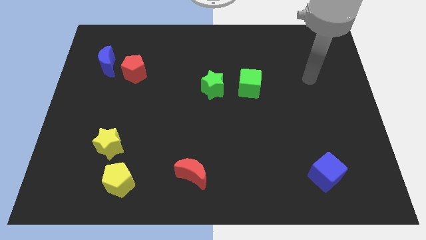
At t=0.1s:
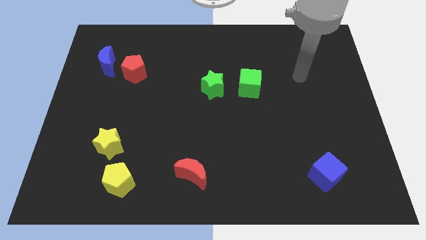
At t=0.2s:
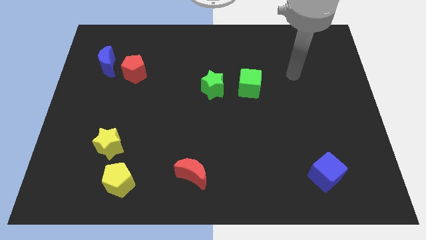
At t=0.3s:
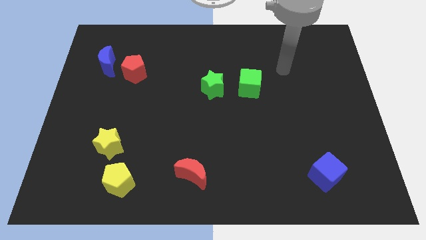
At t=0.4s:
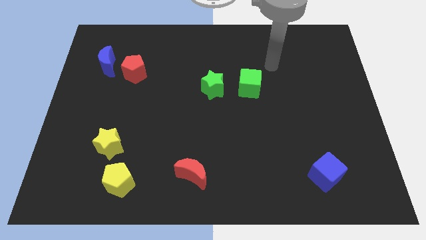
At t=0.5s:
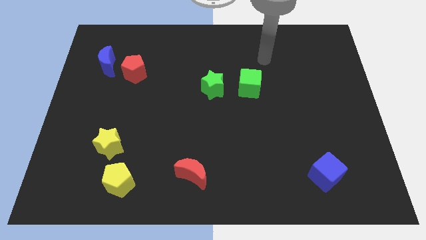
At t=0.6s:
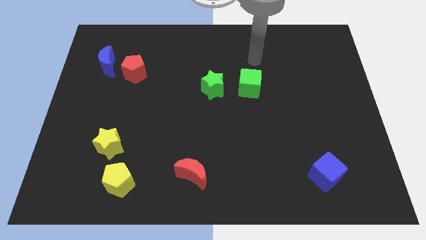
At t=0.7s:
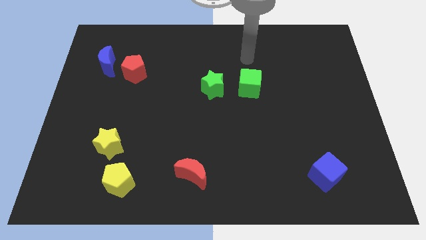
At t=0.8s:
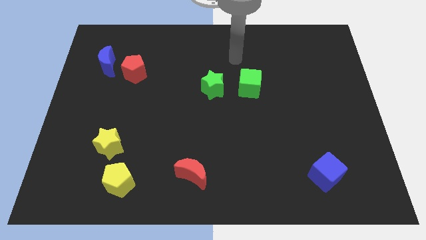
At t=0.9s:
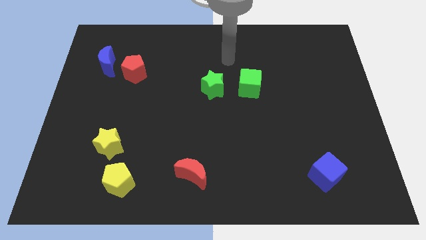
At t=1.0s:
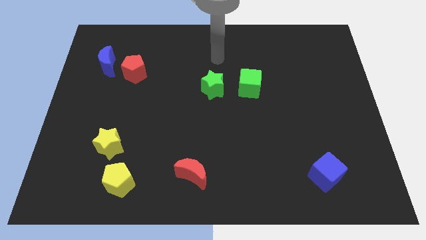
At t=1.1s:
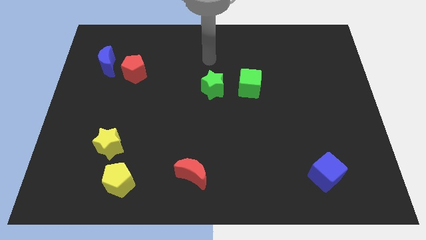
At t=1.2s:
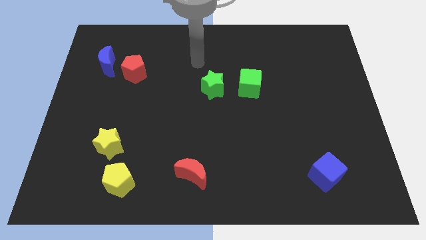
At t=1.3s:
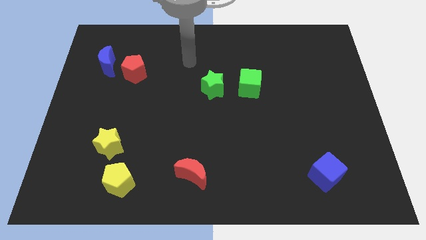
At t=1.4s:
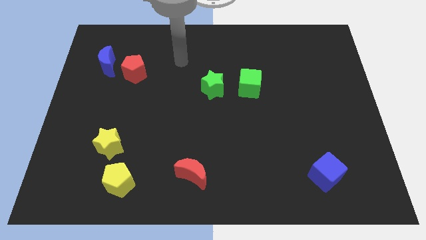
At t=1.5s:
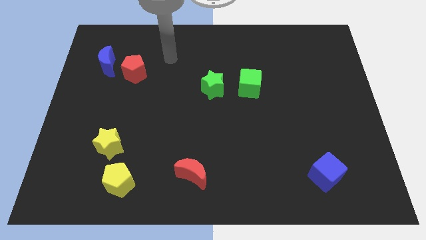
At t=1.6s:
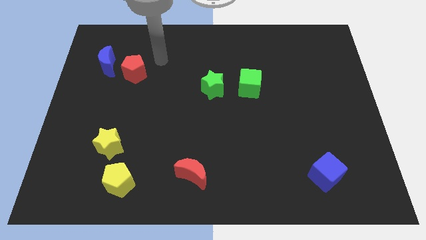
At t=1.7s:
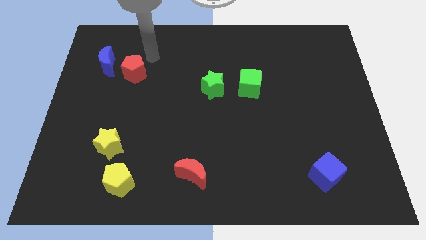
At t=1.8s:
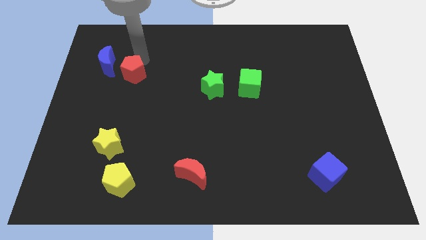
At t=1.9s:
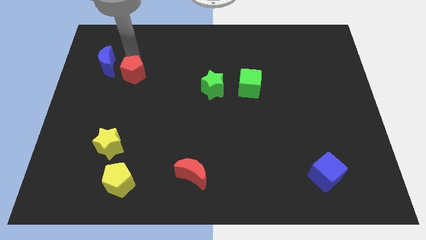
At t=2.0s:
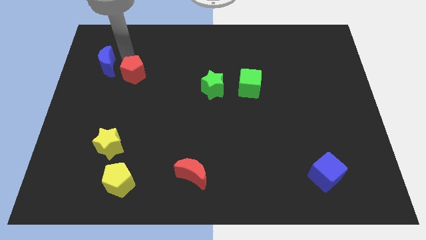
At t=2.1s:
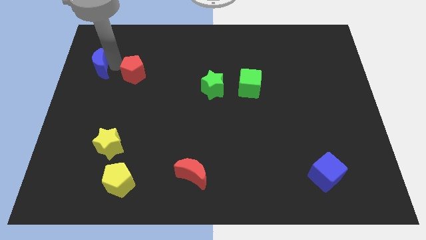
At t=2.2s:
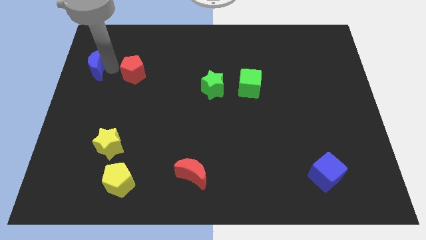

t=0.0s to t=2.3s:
pull the red pentagon apart from the blue moon

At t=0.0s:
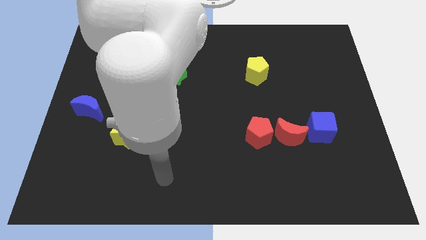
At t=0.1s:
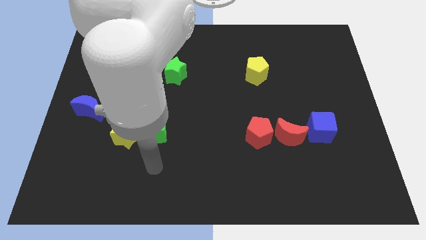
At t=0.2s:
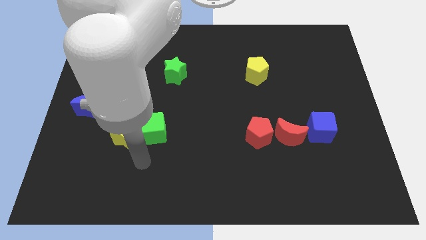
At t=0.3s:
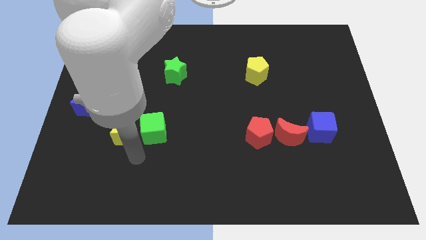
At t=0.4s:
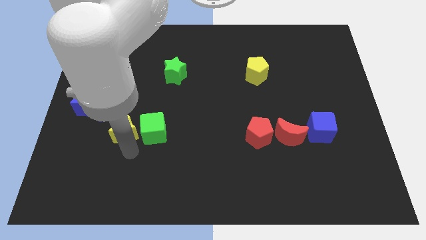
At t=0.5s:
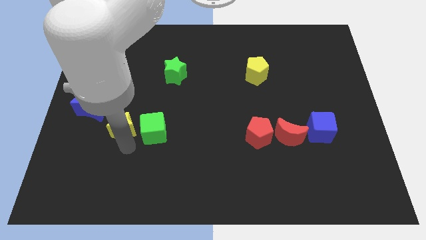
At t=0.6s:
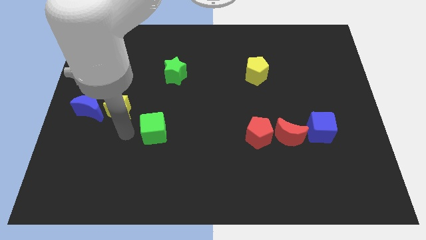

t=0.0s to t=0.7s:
move the green cube away from the yellow star

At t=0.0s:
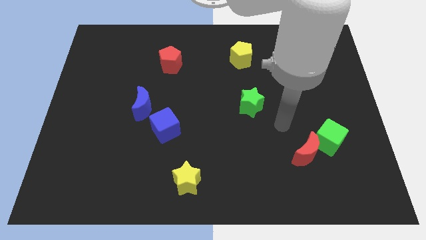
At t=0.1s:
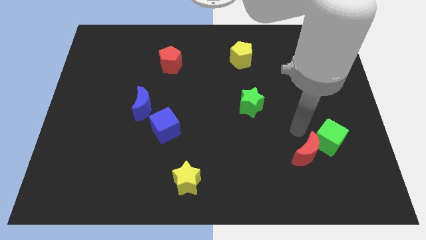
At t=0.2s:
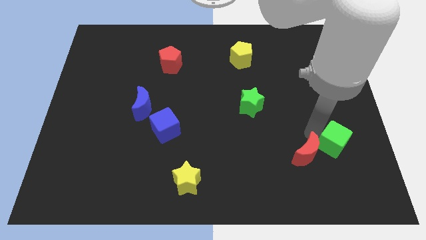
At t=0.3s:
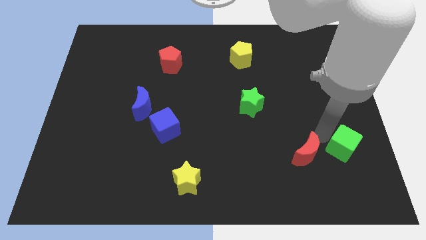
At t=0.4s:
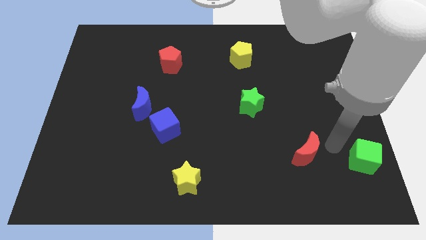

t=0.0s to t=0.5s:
move the red moon away from the green cube

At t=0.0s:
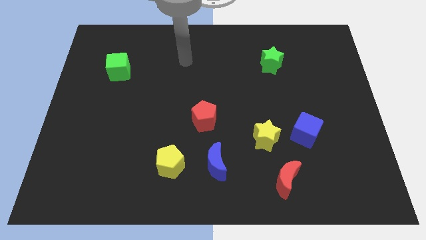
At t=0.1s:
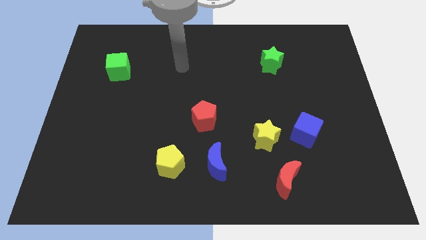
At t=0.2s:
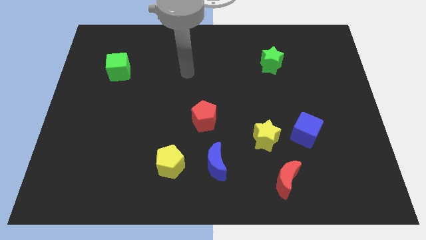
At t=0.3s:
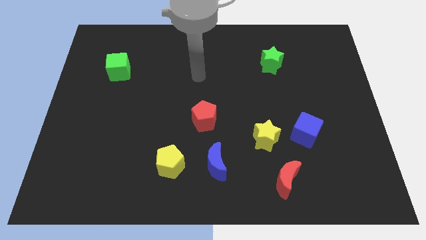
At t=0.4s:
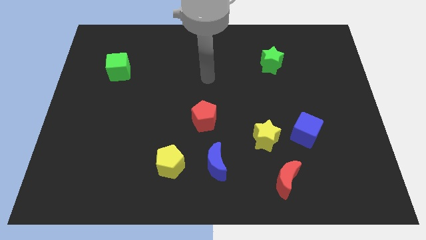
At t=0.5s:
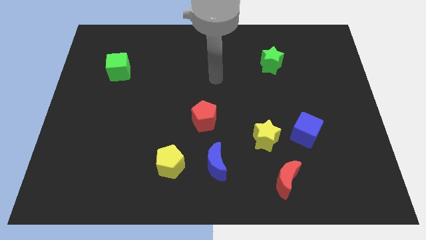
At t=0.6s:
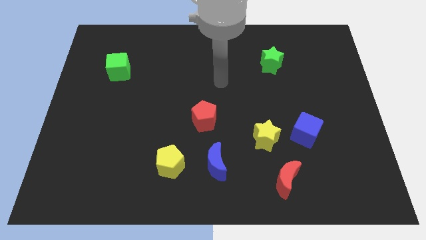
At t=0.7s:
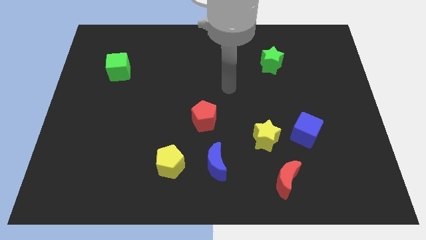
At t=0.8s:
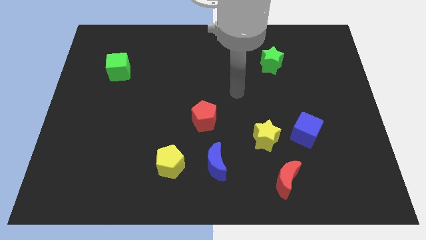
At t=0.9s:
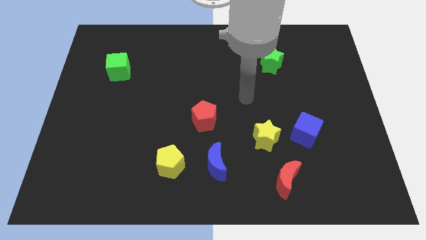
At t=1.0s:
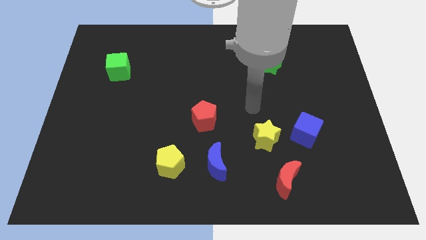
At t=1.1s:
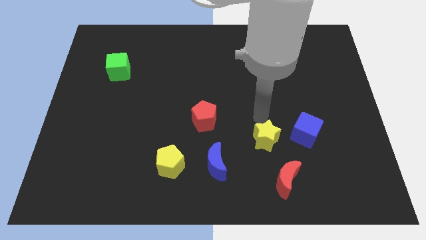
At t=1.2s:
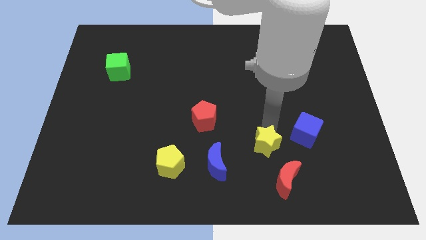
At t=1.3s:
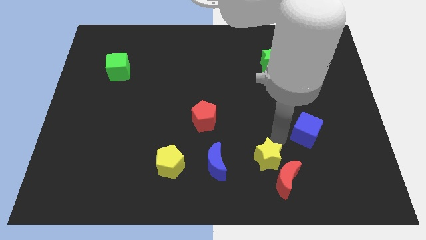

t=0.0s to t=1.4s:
move the blue cube away from the yellow star

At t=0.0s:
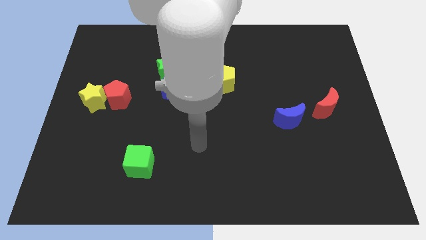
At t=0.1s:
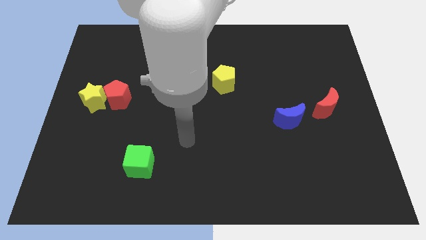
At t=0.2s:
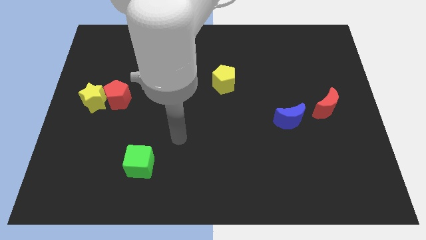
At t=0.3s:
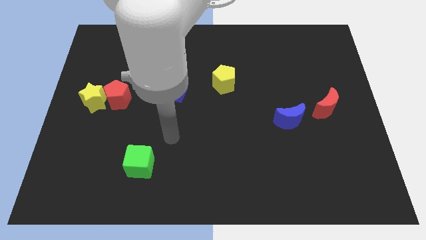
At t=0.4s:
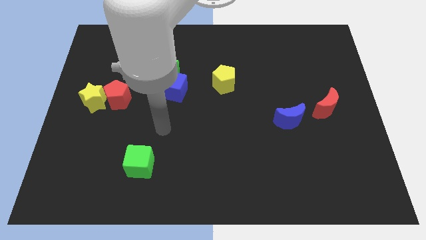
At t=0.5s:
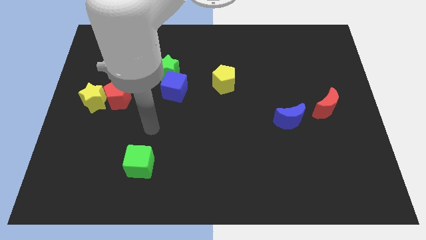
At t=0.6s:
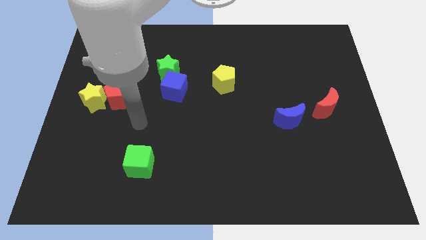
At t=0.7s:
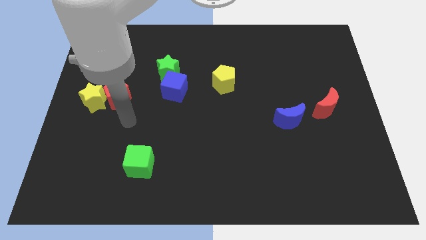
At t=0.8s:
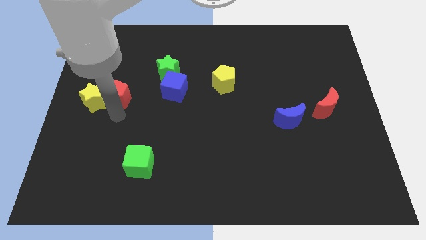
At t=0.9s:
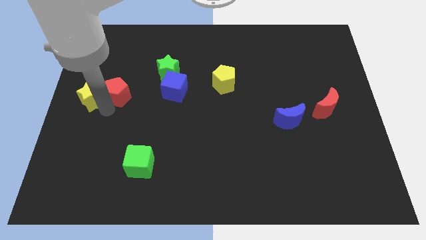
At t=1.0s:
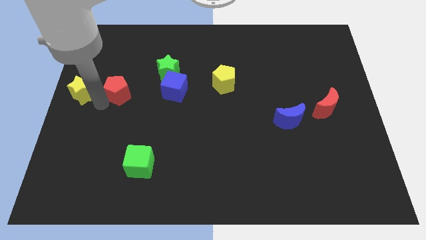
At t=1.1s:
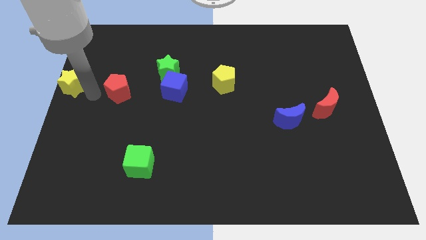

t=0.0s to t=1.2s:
pull the red pentagon apart from the yellow star

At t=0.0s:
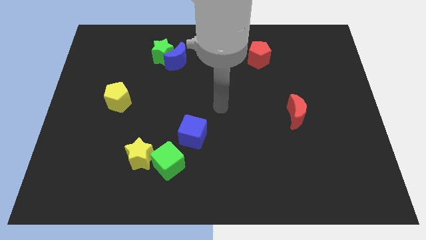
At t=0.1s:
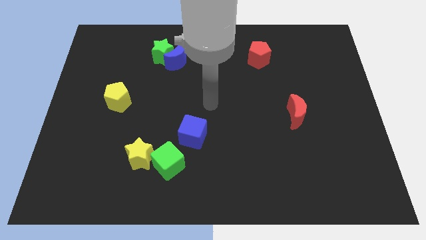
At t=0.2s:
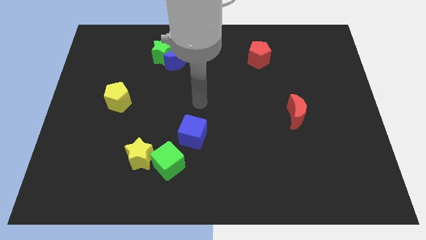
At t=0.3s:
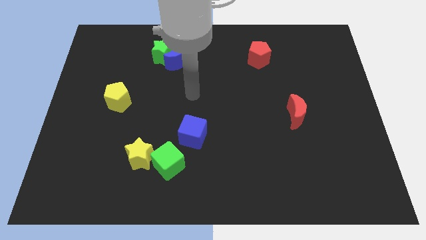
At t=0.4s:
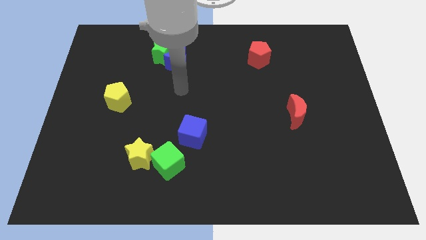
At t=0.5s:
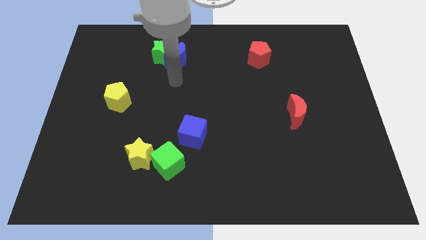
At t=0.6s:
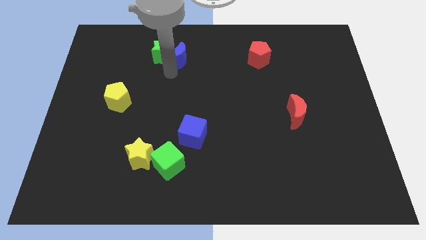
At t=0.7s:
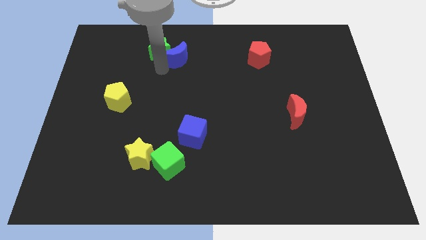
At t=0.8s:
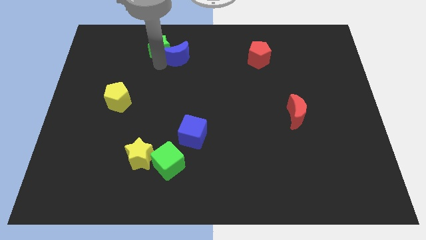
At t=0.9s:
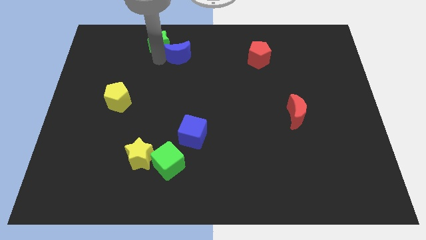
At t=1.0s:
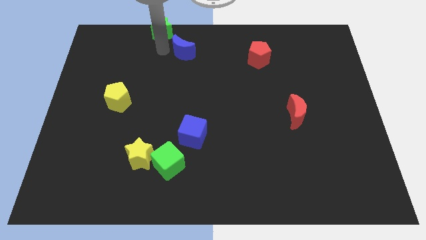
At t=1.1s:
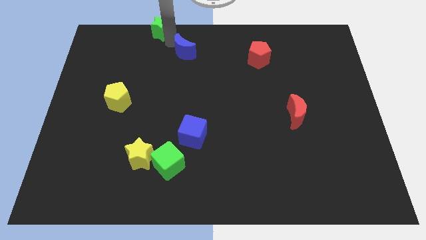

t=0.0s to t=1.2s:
separate the blue moon from the green star

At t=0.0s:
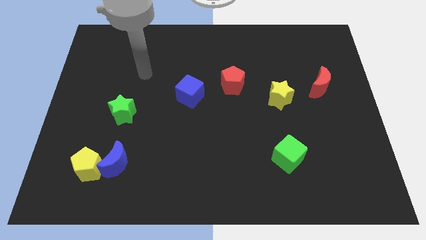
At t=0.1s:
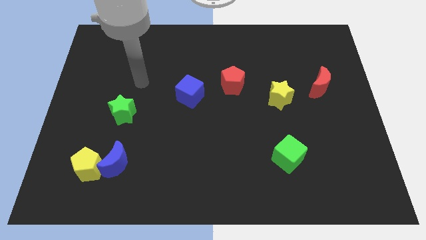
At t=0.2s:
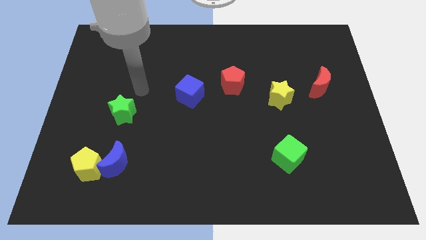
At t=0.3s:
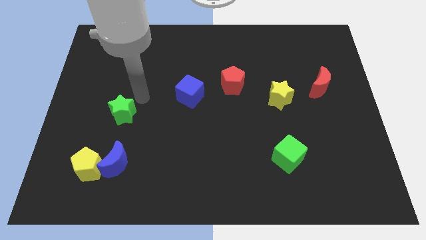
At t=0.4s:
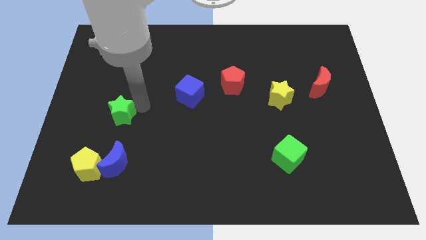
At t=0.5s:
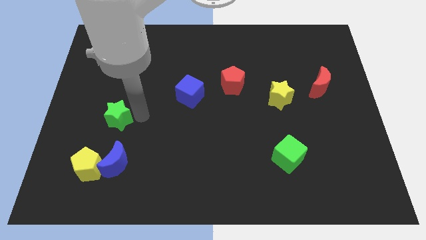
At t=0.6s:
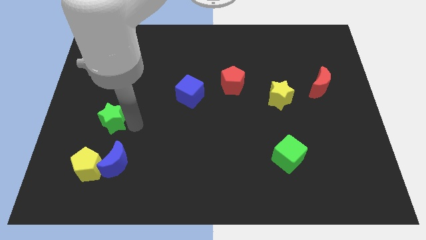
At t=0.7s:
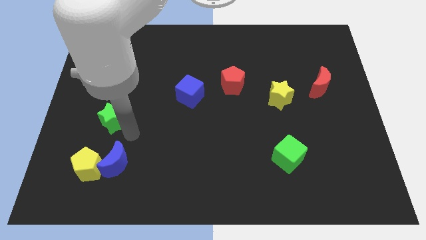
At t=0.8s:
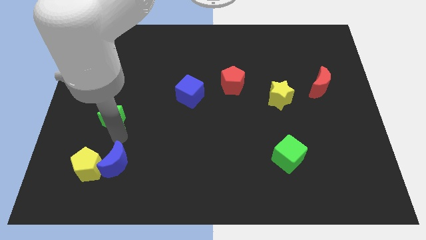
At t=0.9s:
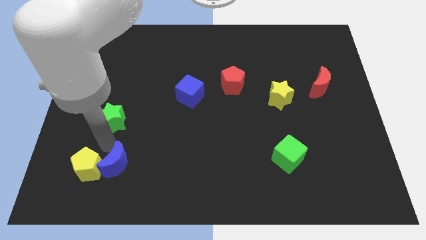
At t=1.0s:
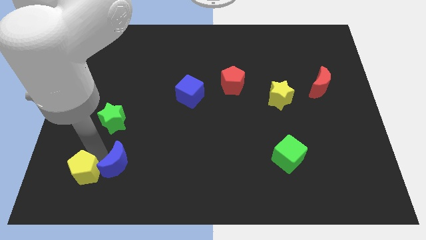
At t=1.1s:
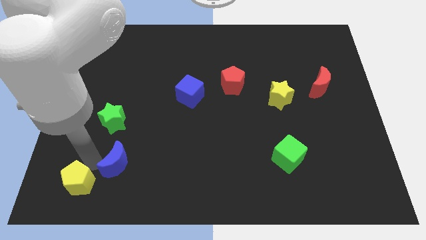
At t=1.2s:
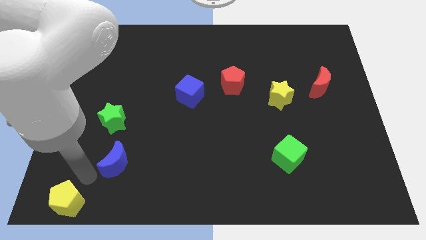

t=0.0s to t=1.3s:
separate the blue moon from the yellow pentagon

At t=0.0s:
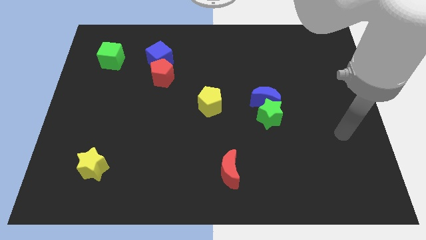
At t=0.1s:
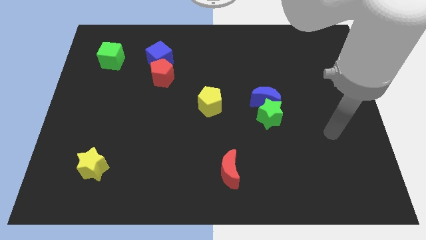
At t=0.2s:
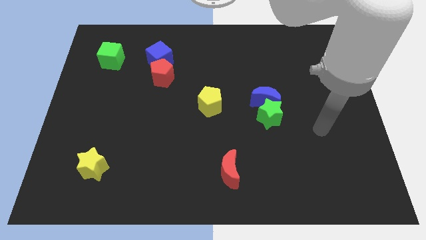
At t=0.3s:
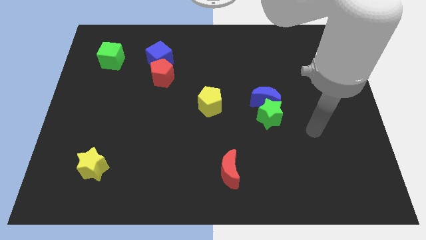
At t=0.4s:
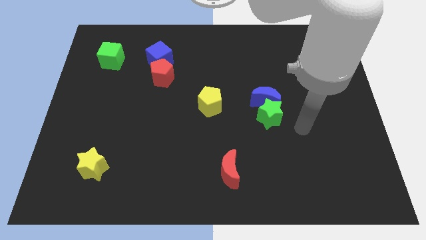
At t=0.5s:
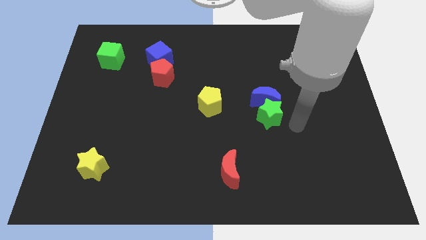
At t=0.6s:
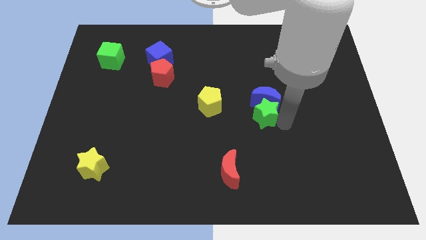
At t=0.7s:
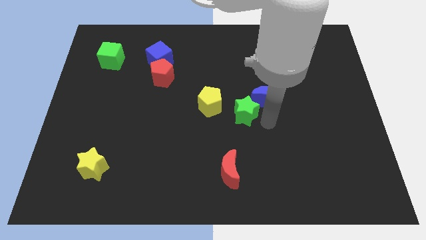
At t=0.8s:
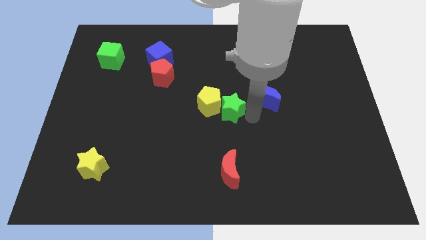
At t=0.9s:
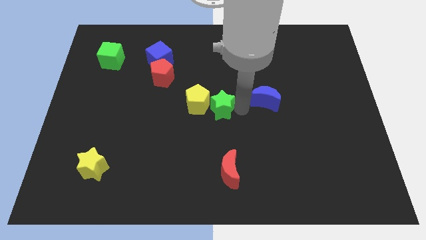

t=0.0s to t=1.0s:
move the blue moon away from the green star
